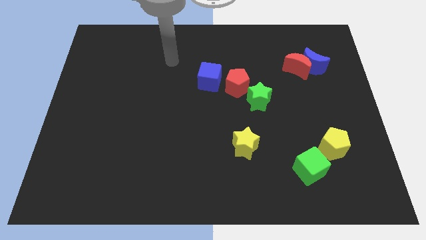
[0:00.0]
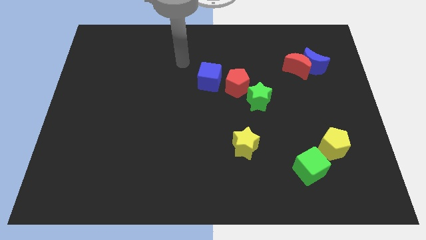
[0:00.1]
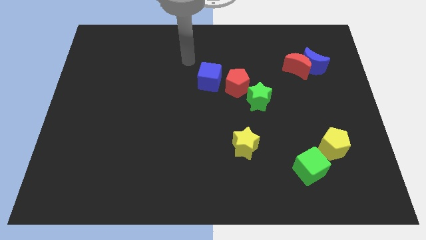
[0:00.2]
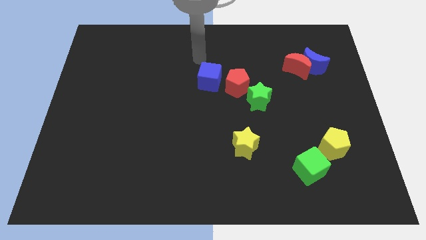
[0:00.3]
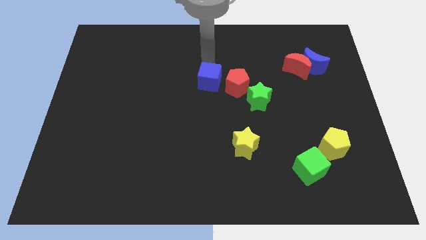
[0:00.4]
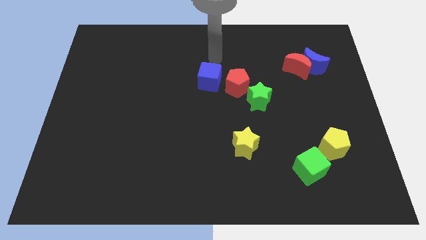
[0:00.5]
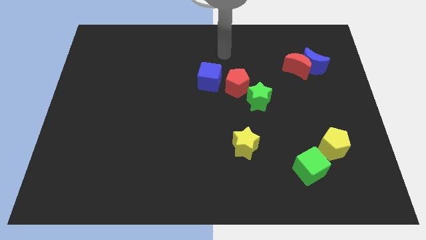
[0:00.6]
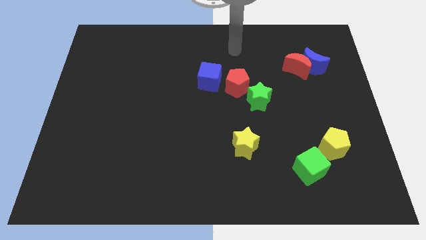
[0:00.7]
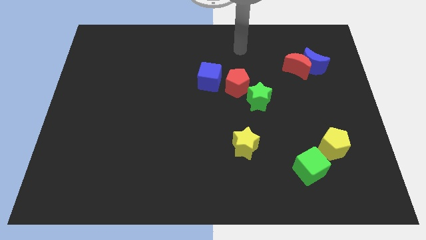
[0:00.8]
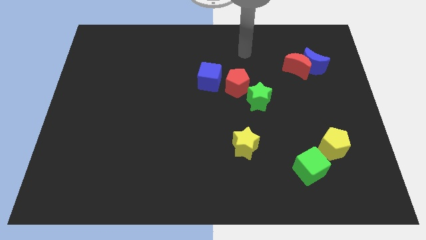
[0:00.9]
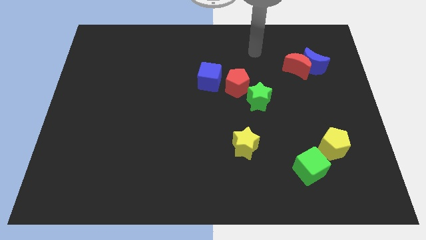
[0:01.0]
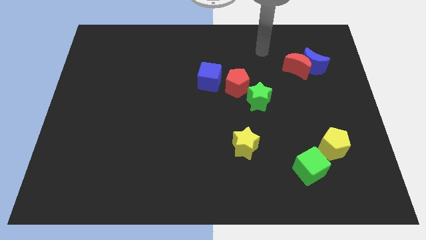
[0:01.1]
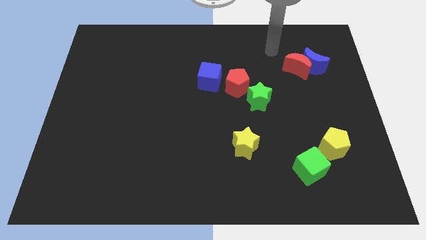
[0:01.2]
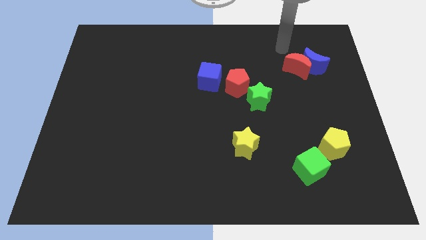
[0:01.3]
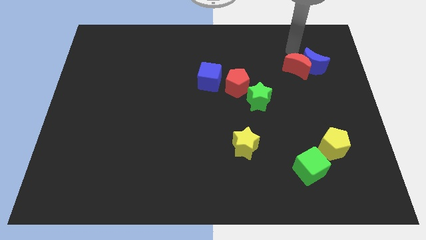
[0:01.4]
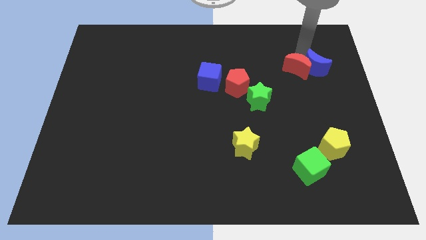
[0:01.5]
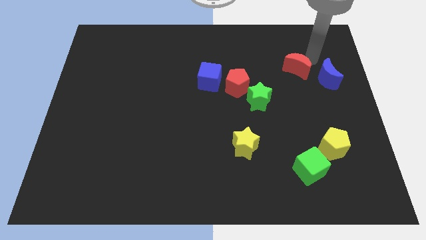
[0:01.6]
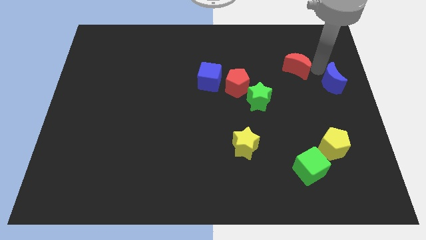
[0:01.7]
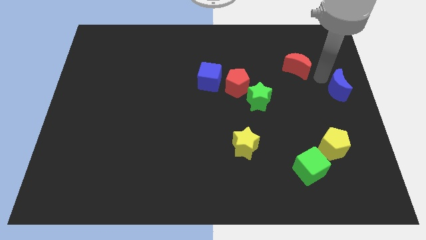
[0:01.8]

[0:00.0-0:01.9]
move the red moon away from the blue moon

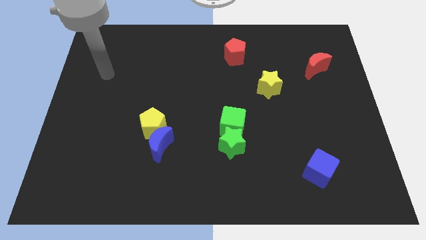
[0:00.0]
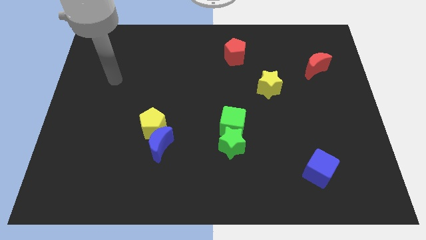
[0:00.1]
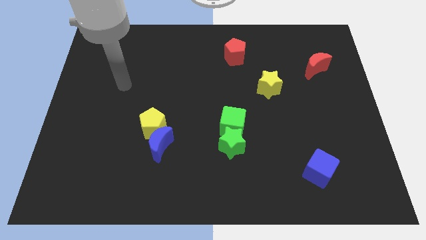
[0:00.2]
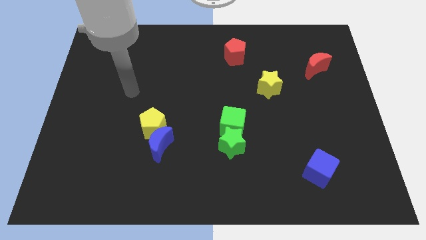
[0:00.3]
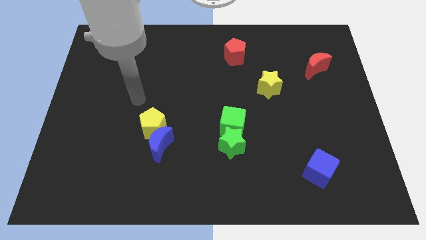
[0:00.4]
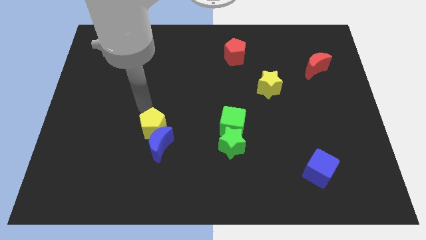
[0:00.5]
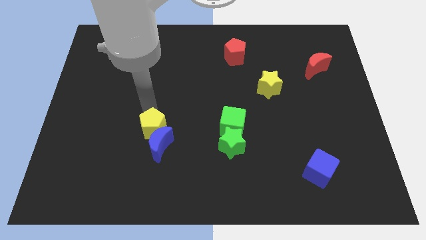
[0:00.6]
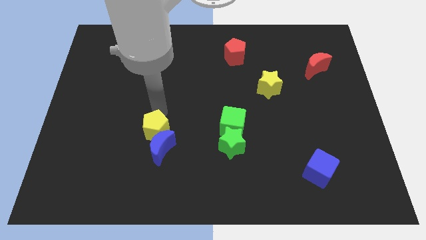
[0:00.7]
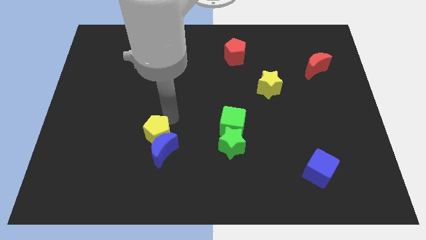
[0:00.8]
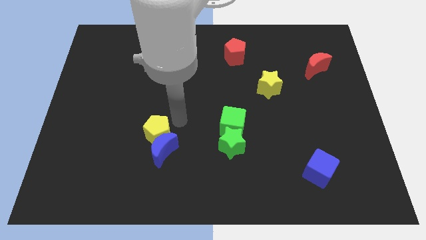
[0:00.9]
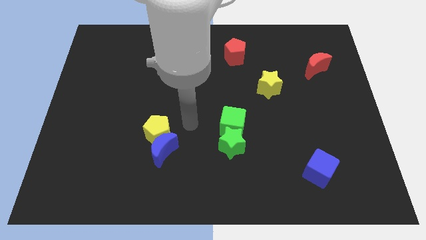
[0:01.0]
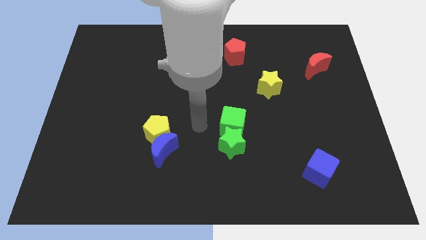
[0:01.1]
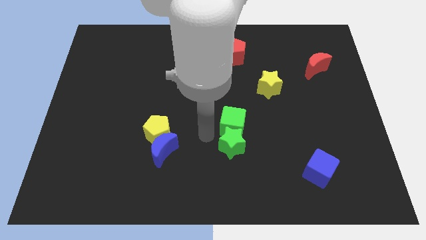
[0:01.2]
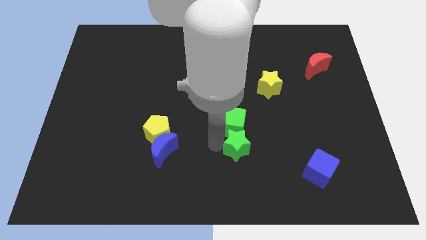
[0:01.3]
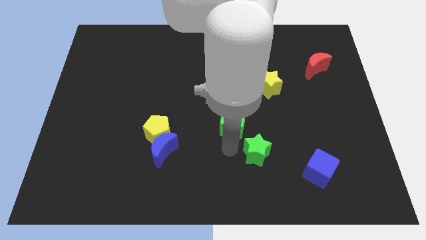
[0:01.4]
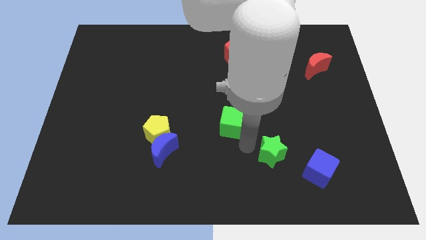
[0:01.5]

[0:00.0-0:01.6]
move the green cube away from the green star

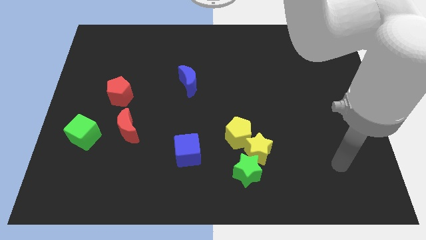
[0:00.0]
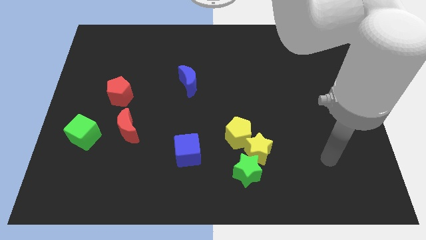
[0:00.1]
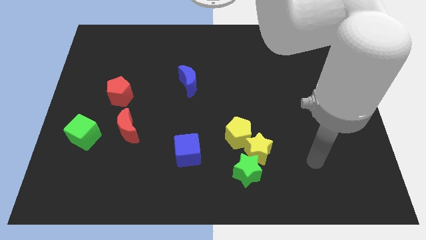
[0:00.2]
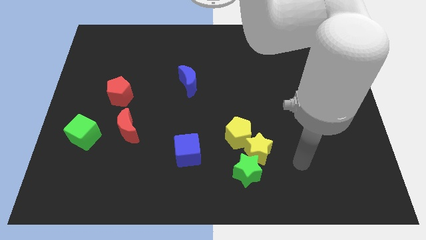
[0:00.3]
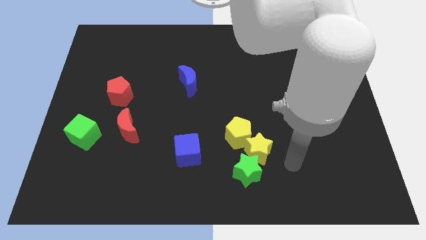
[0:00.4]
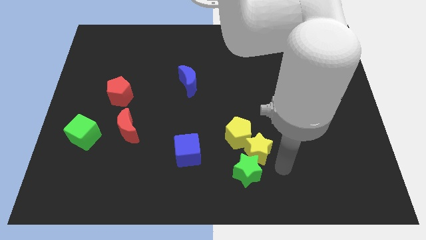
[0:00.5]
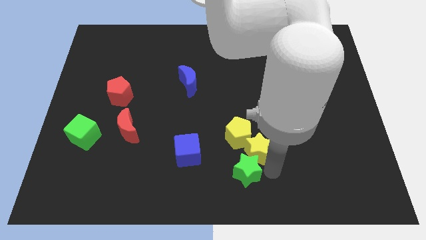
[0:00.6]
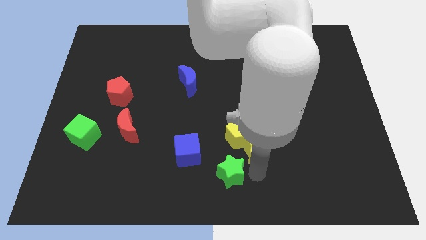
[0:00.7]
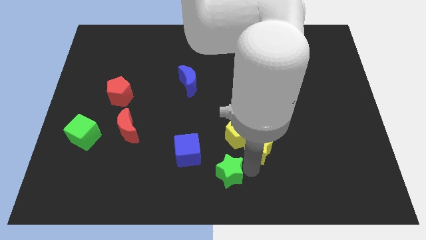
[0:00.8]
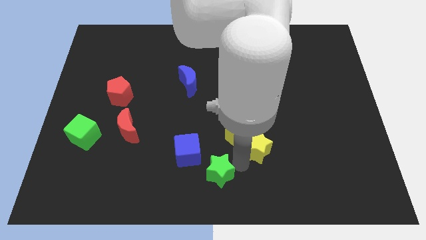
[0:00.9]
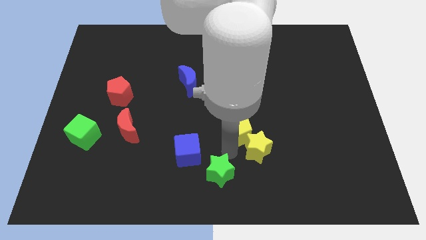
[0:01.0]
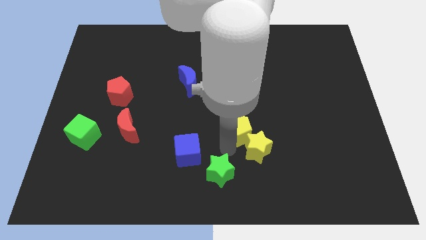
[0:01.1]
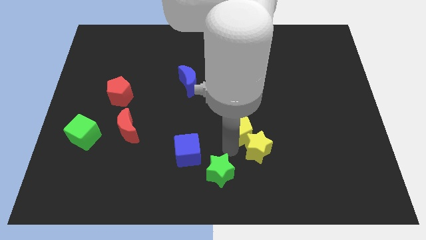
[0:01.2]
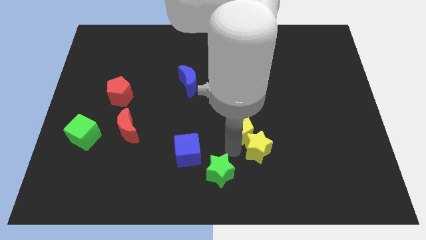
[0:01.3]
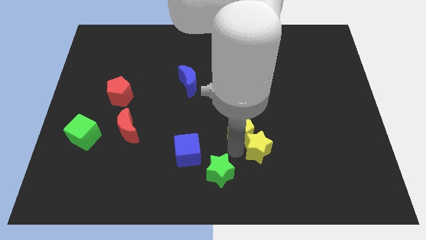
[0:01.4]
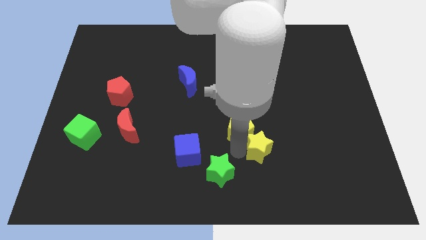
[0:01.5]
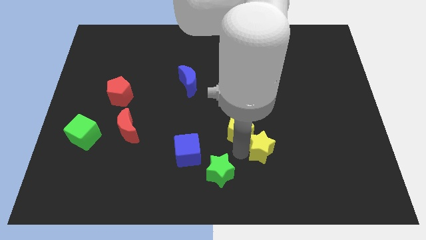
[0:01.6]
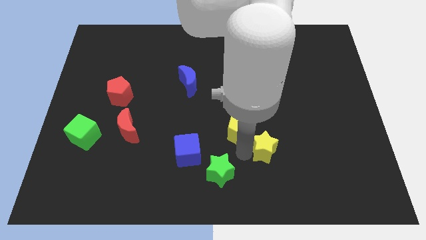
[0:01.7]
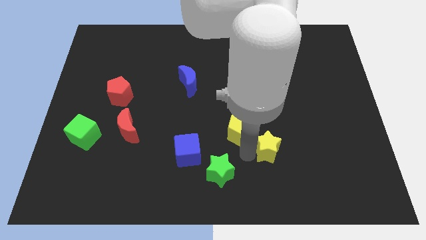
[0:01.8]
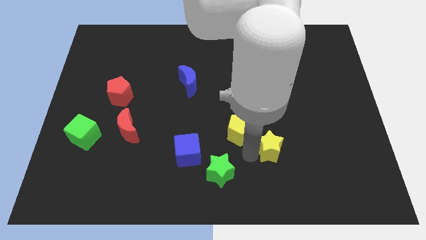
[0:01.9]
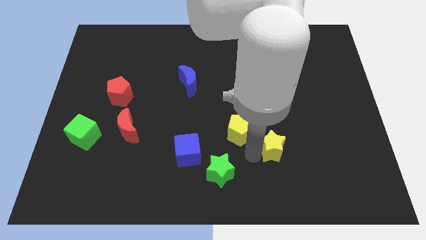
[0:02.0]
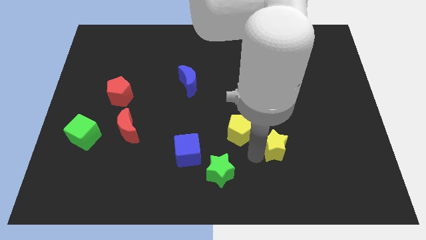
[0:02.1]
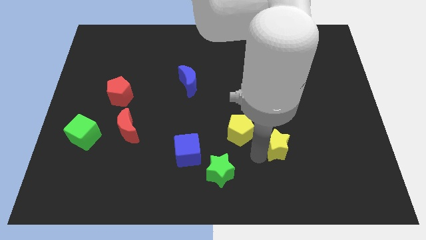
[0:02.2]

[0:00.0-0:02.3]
pull the yellow star apart from the green star and yellow pentagon

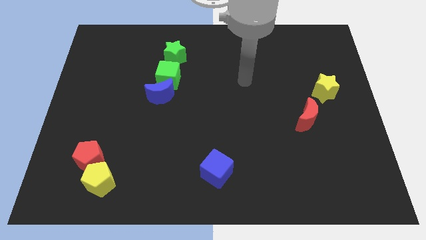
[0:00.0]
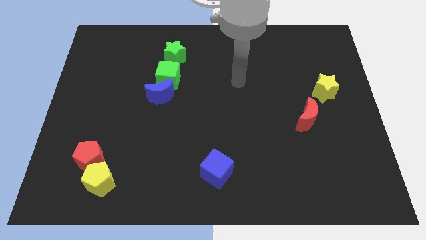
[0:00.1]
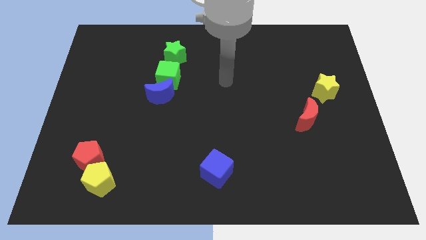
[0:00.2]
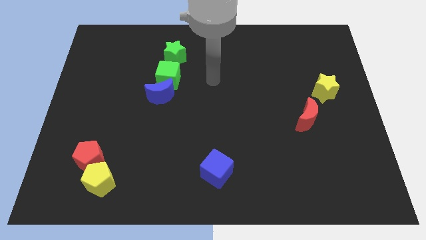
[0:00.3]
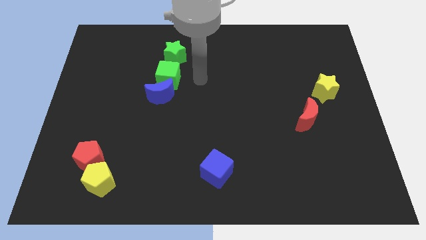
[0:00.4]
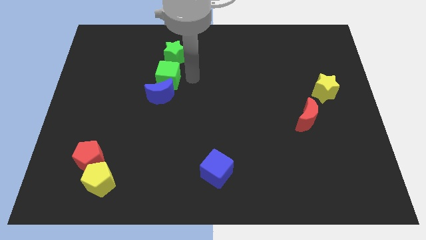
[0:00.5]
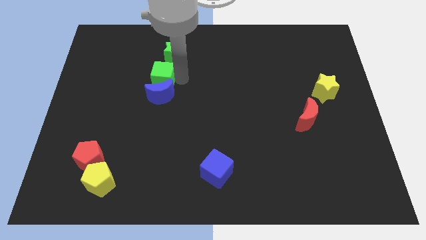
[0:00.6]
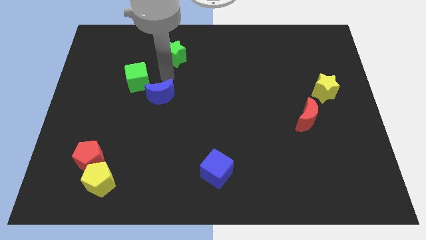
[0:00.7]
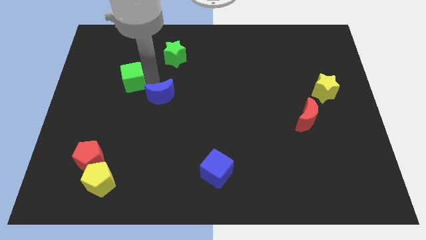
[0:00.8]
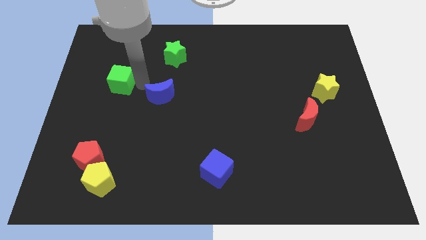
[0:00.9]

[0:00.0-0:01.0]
move the blue moon away from the green cube

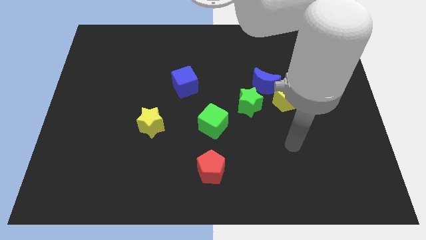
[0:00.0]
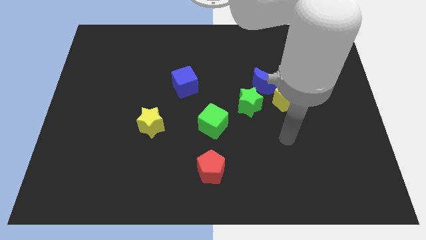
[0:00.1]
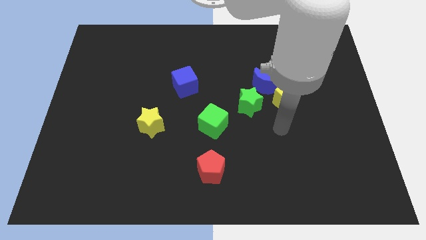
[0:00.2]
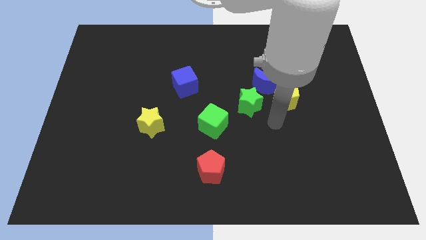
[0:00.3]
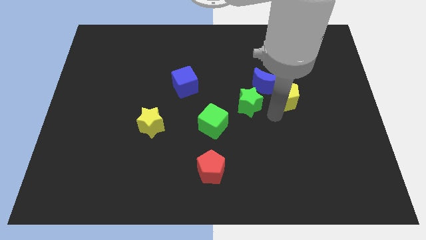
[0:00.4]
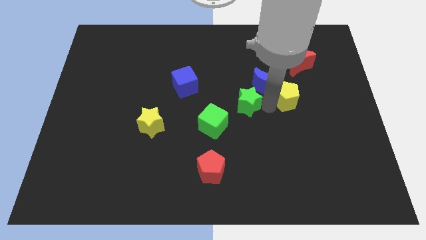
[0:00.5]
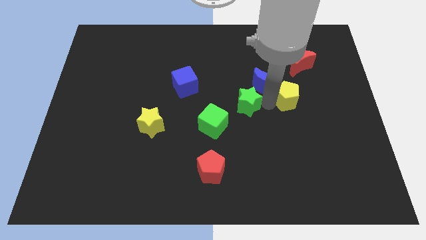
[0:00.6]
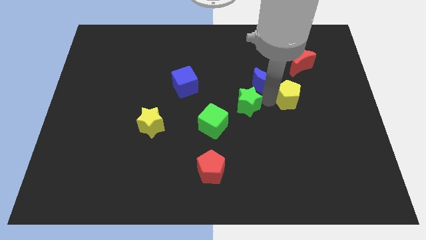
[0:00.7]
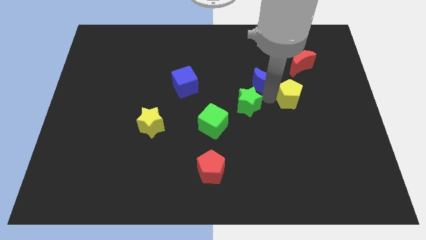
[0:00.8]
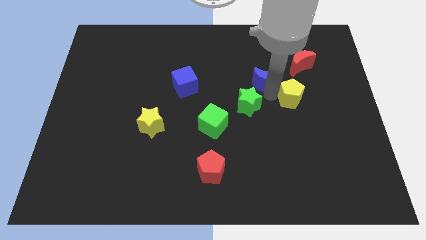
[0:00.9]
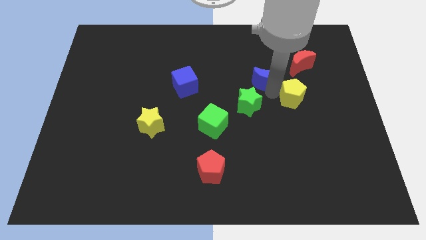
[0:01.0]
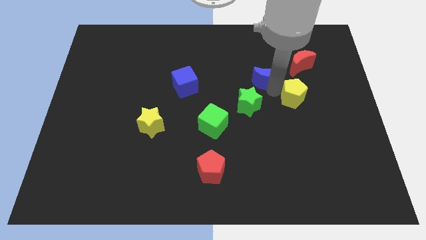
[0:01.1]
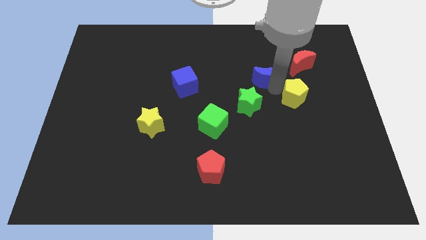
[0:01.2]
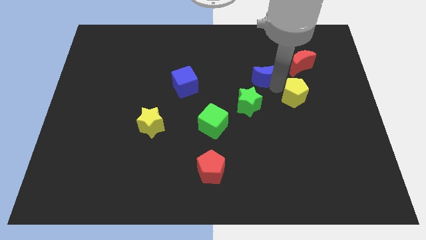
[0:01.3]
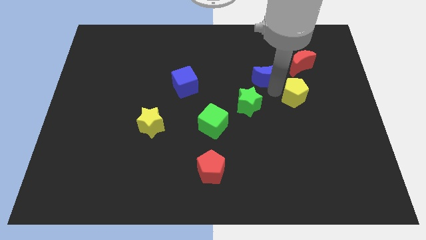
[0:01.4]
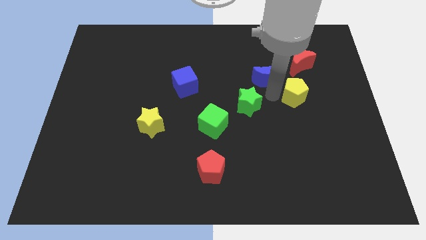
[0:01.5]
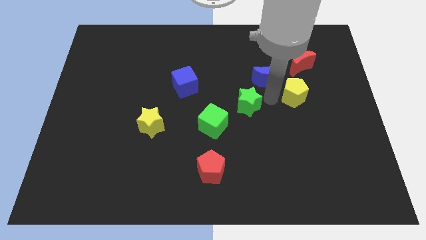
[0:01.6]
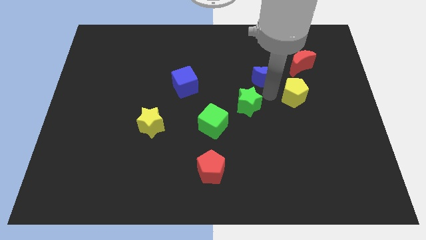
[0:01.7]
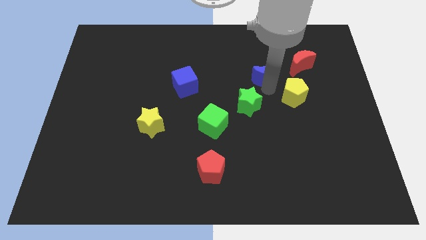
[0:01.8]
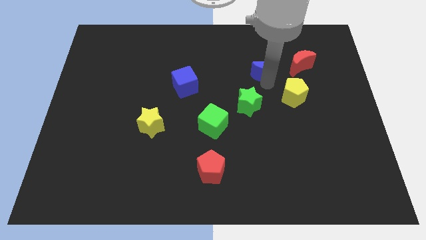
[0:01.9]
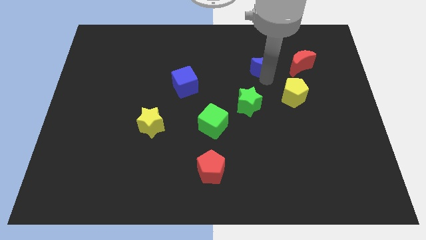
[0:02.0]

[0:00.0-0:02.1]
separate the blue moon from the yellow pentagon and green star

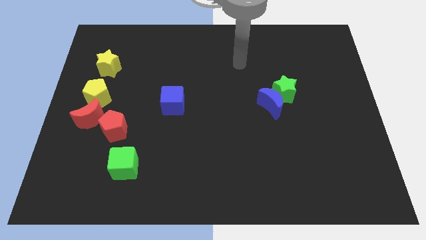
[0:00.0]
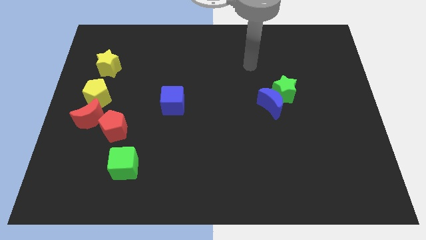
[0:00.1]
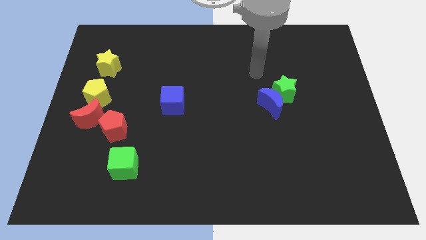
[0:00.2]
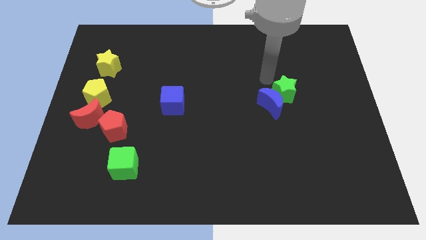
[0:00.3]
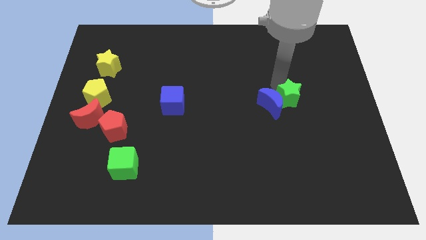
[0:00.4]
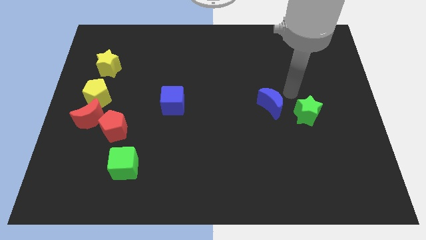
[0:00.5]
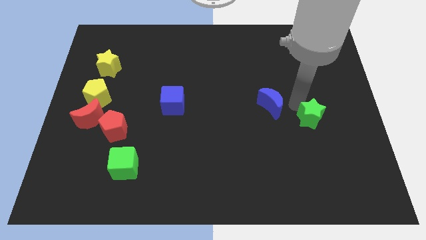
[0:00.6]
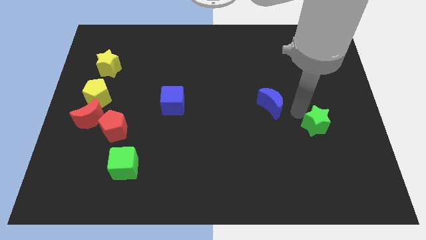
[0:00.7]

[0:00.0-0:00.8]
separate the blue moon from the green star
